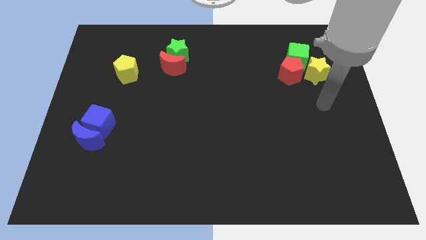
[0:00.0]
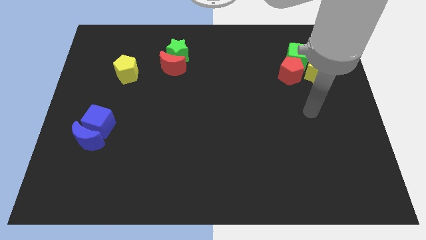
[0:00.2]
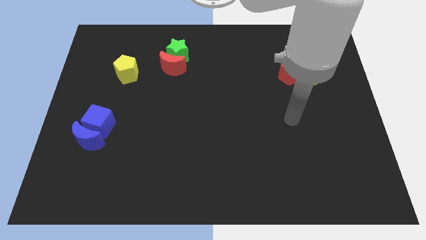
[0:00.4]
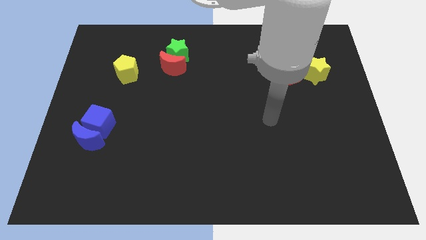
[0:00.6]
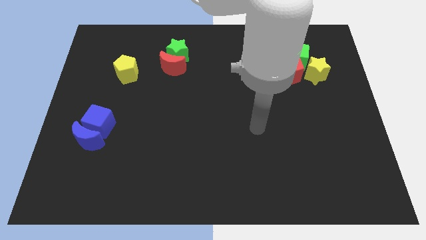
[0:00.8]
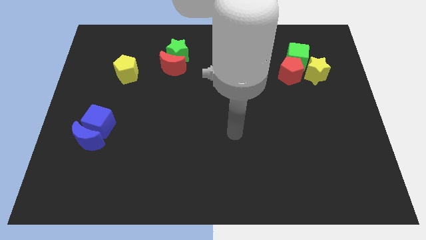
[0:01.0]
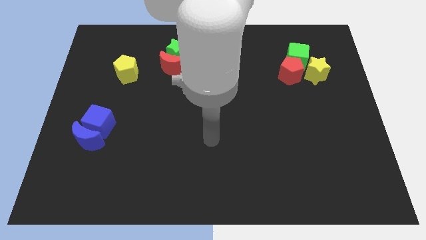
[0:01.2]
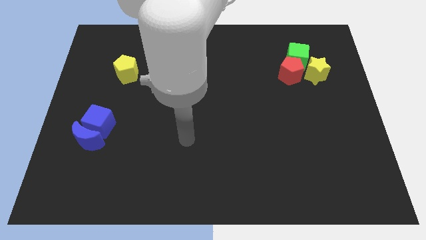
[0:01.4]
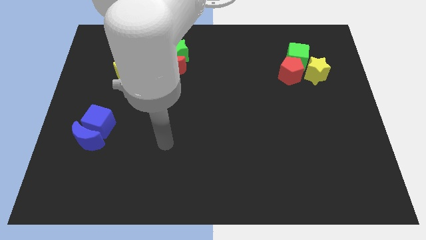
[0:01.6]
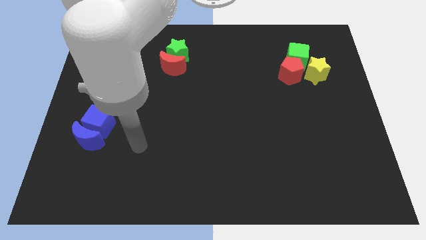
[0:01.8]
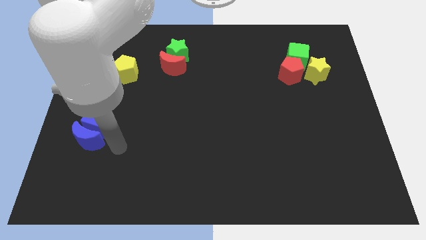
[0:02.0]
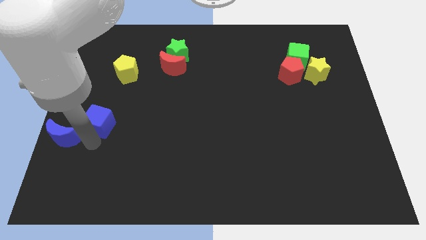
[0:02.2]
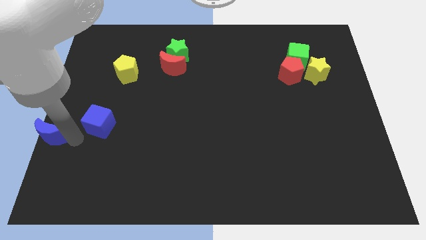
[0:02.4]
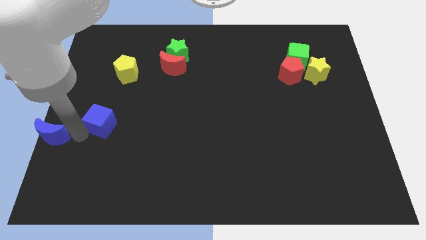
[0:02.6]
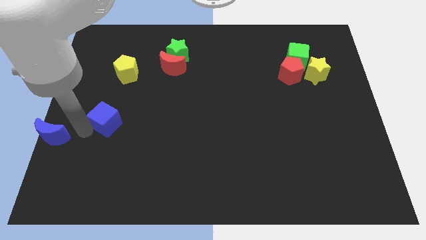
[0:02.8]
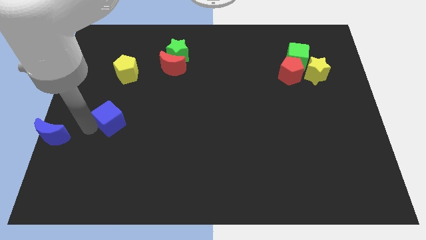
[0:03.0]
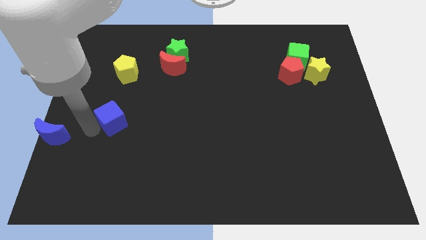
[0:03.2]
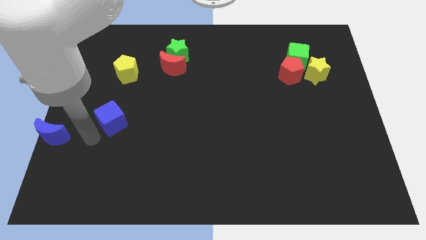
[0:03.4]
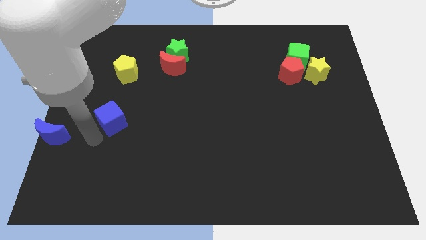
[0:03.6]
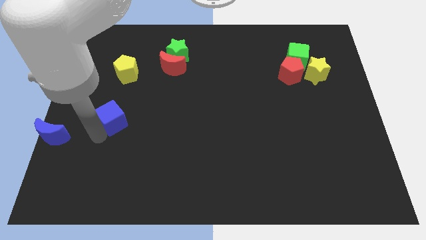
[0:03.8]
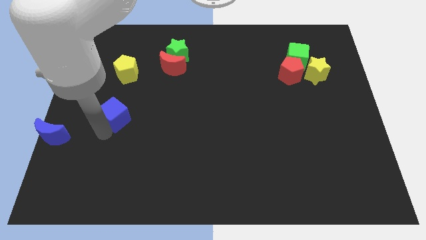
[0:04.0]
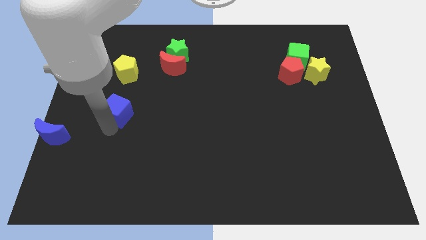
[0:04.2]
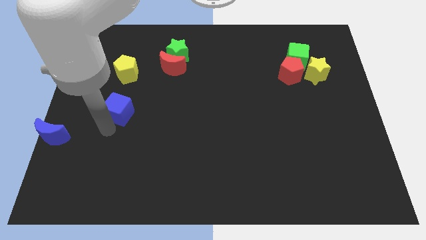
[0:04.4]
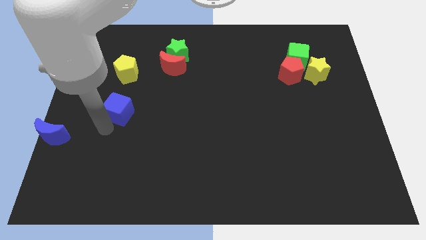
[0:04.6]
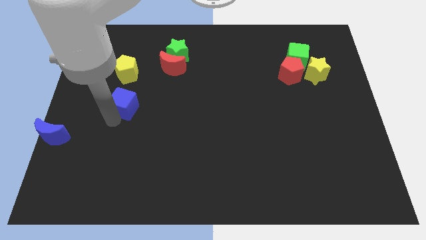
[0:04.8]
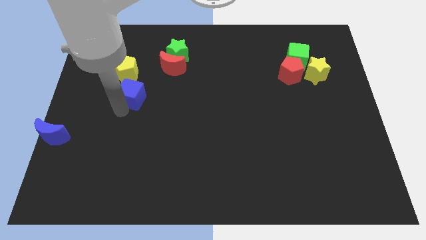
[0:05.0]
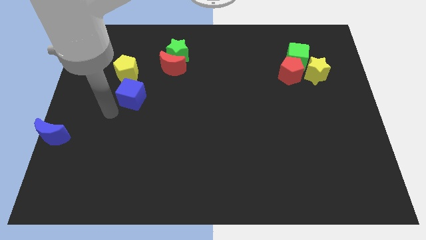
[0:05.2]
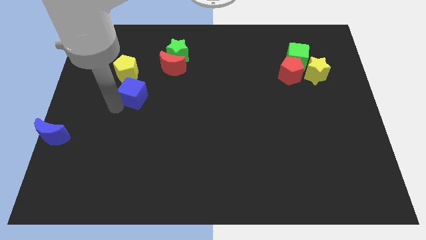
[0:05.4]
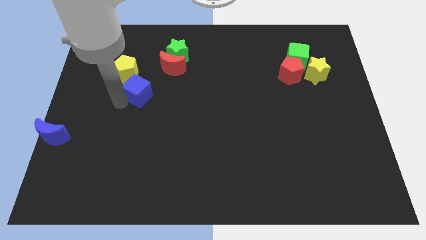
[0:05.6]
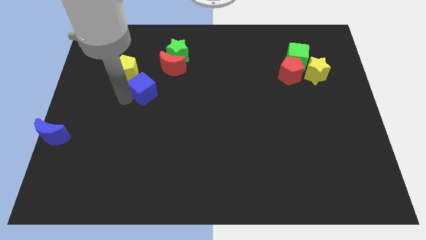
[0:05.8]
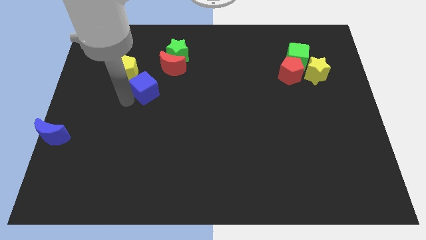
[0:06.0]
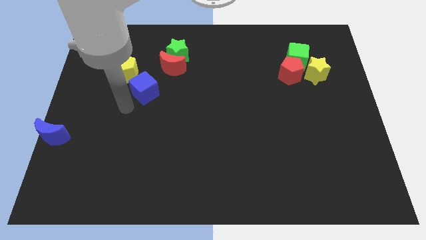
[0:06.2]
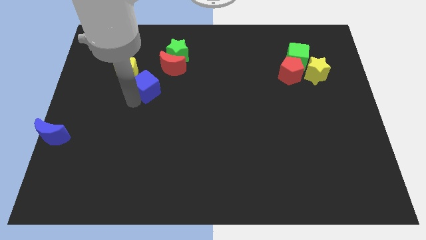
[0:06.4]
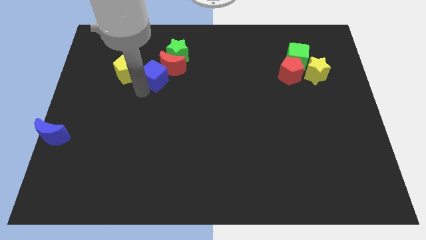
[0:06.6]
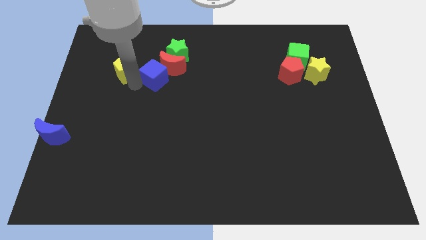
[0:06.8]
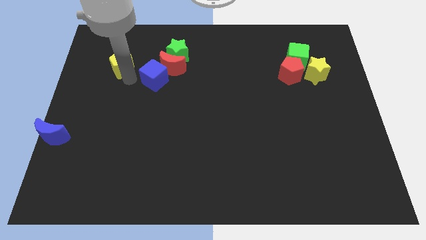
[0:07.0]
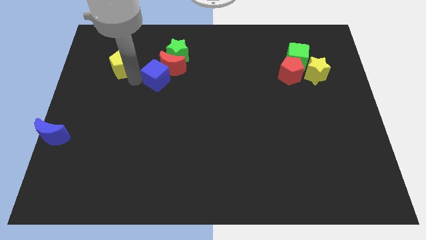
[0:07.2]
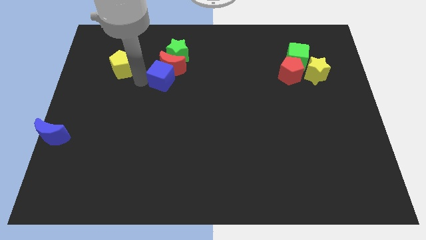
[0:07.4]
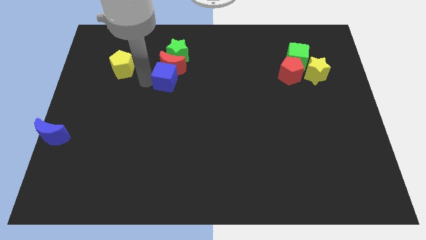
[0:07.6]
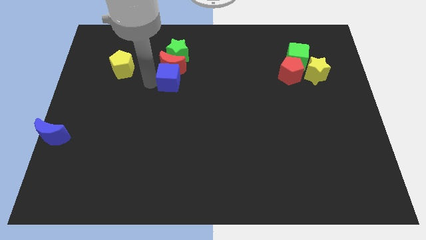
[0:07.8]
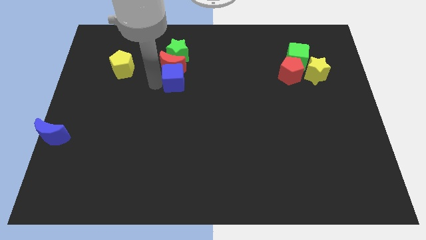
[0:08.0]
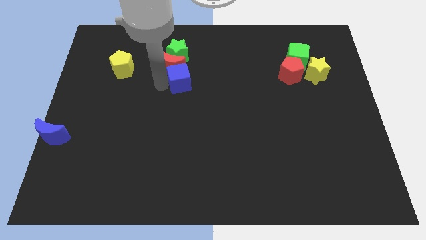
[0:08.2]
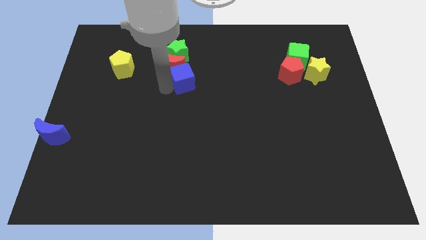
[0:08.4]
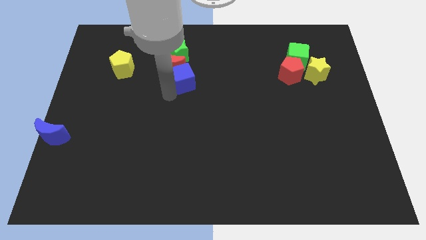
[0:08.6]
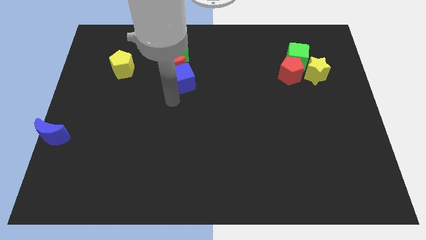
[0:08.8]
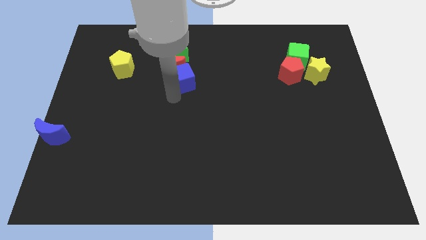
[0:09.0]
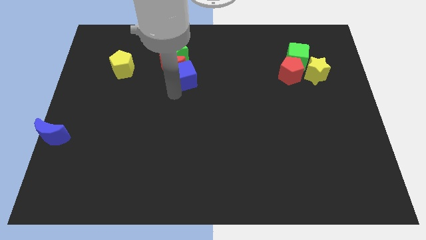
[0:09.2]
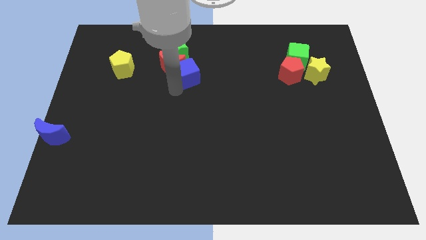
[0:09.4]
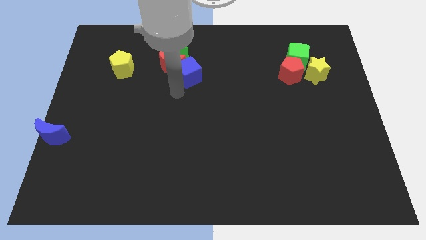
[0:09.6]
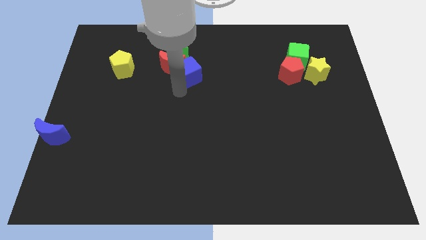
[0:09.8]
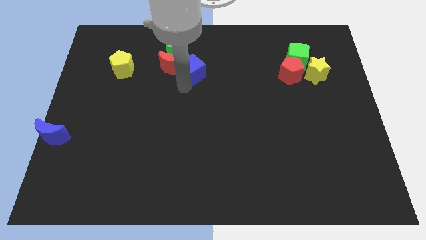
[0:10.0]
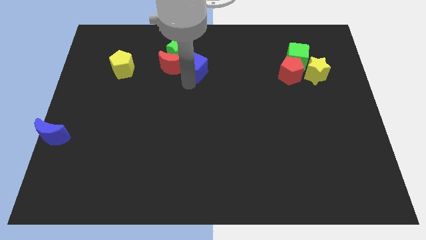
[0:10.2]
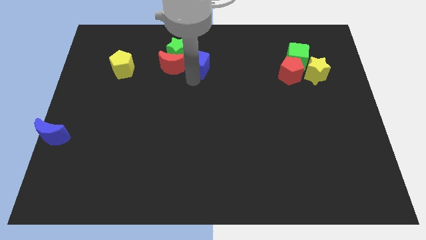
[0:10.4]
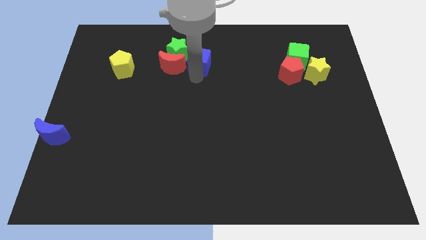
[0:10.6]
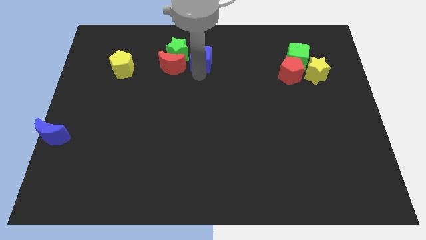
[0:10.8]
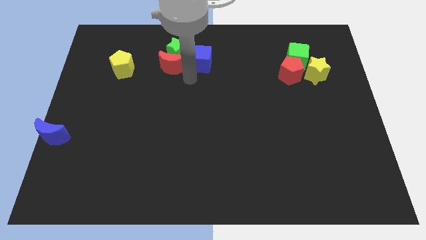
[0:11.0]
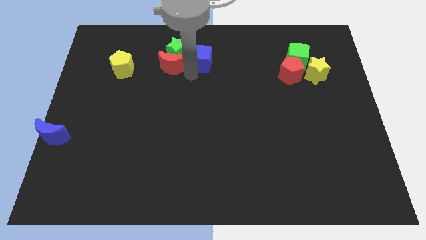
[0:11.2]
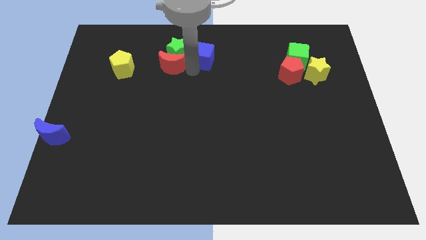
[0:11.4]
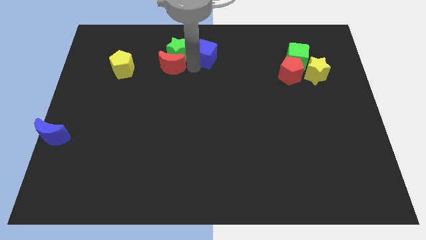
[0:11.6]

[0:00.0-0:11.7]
slide the blue cube to the towards your base
